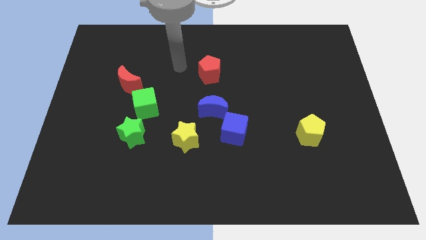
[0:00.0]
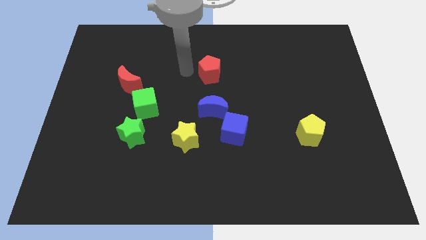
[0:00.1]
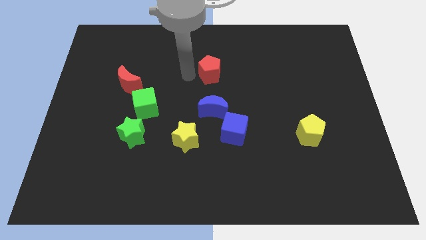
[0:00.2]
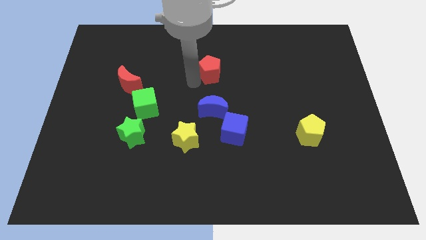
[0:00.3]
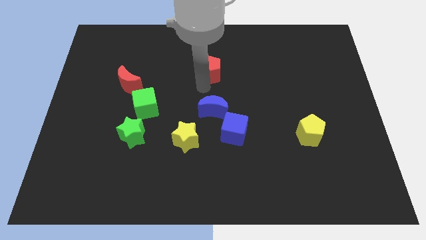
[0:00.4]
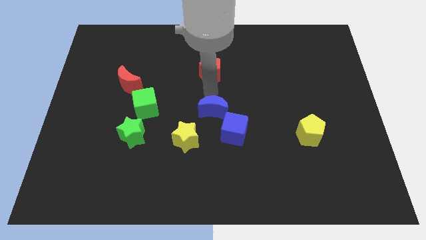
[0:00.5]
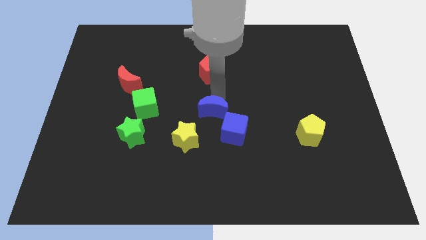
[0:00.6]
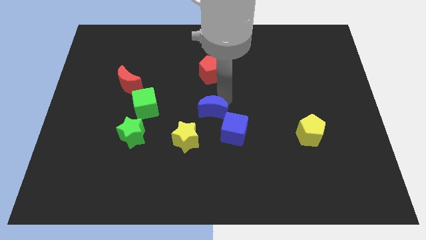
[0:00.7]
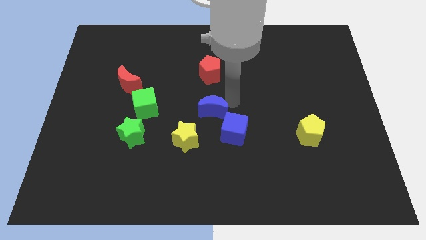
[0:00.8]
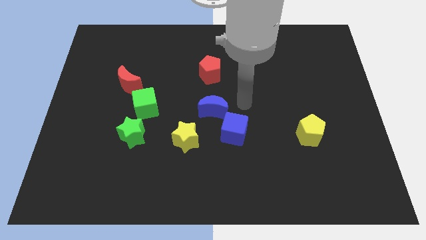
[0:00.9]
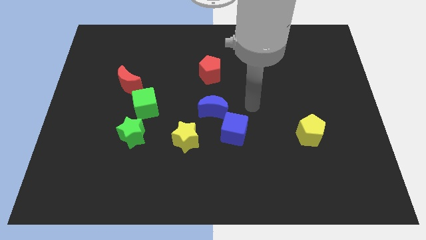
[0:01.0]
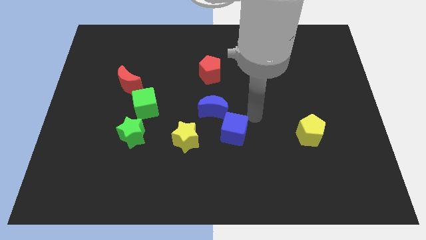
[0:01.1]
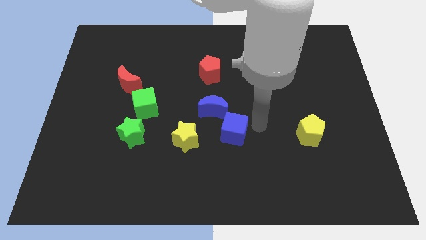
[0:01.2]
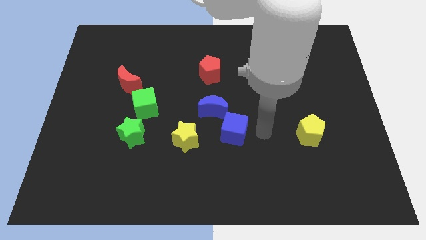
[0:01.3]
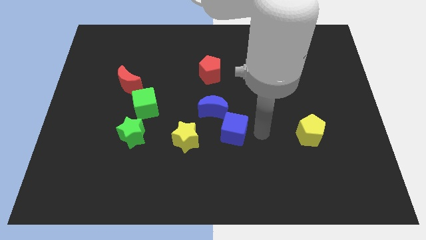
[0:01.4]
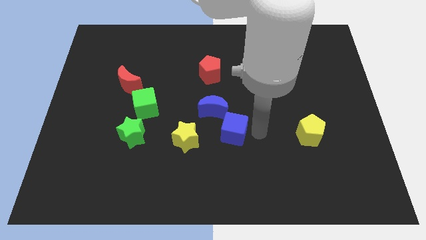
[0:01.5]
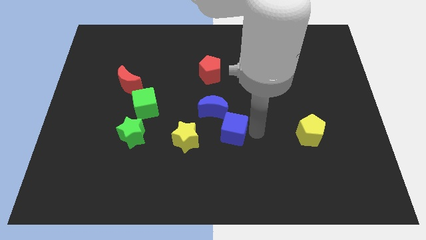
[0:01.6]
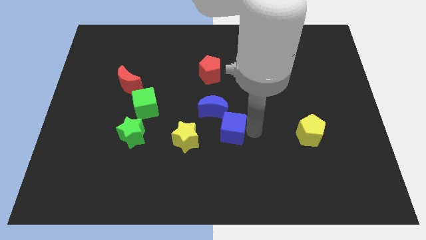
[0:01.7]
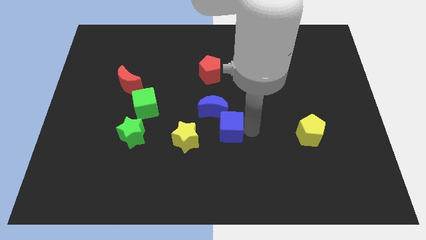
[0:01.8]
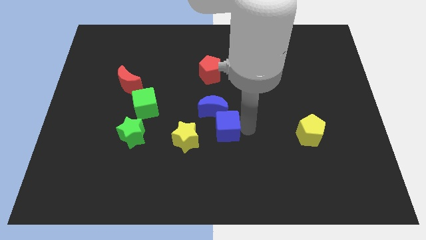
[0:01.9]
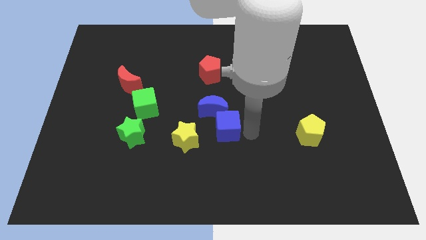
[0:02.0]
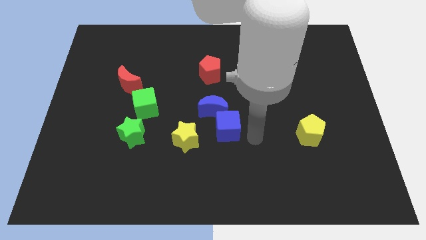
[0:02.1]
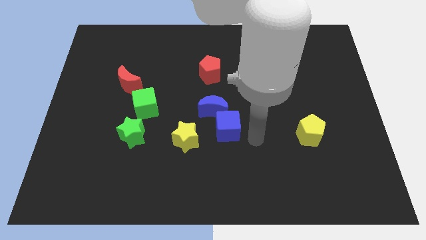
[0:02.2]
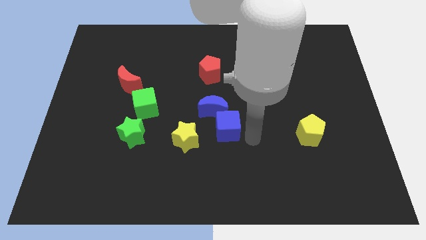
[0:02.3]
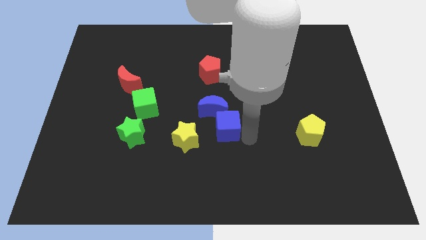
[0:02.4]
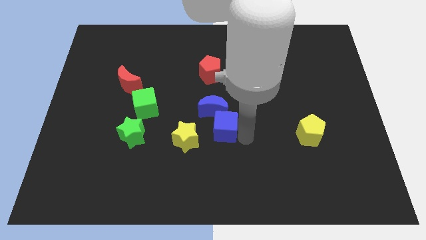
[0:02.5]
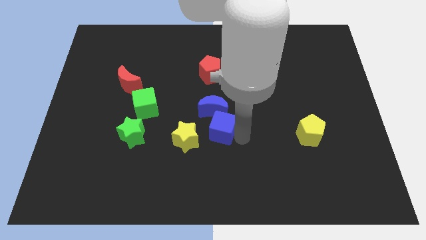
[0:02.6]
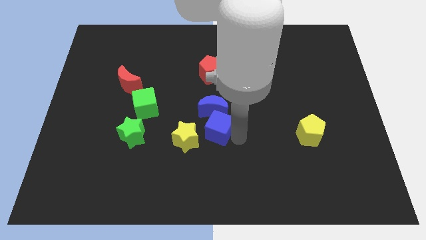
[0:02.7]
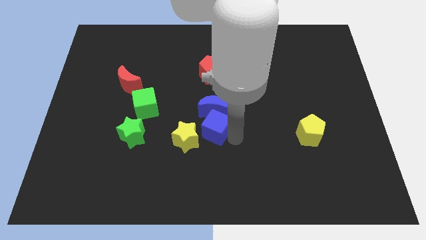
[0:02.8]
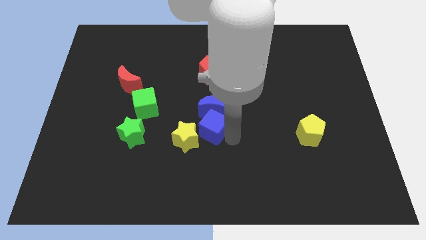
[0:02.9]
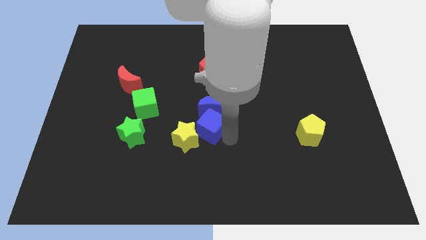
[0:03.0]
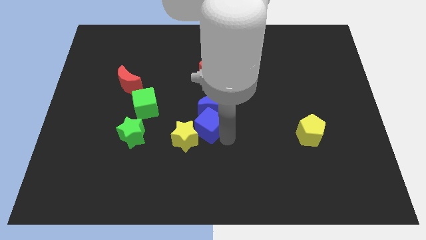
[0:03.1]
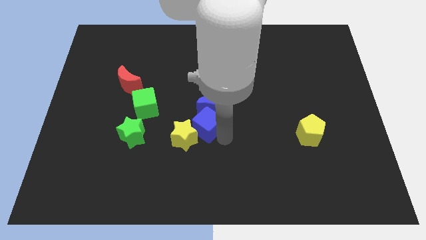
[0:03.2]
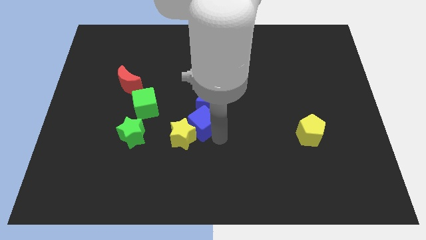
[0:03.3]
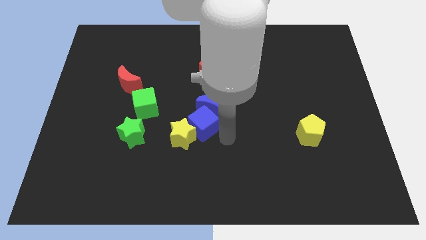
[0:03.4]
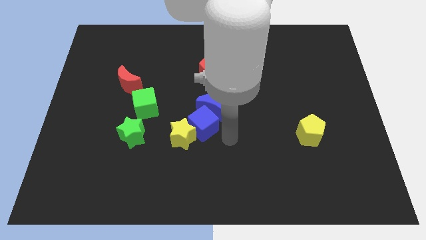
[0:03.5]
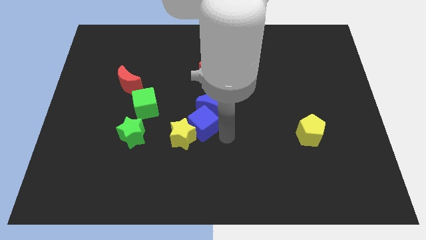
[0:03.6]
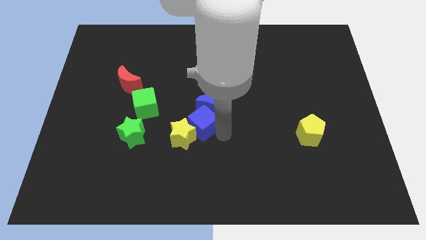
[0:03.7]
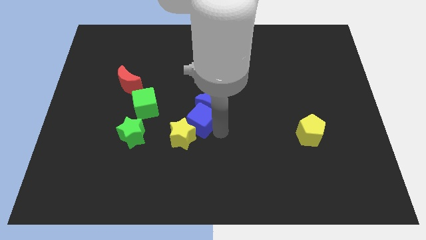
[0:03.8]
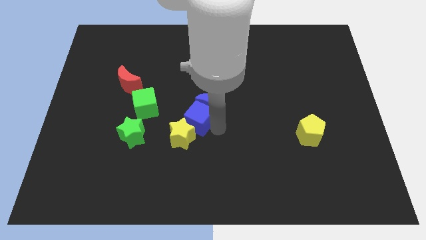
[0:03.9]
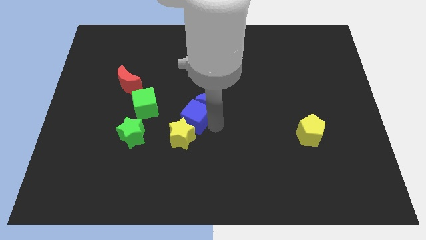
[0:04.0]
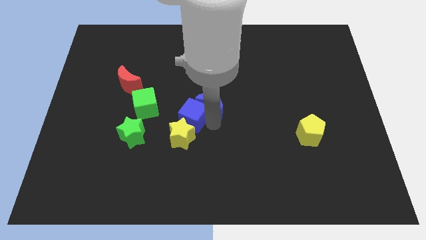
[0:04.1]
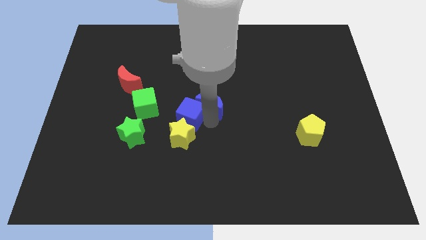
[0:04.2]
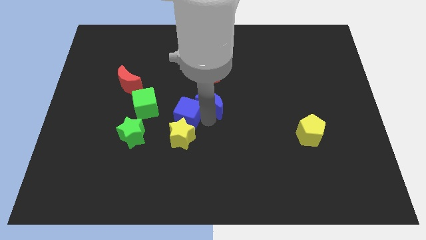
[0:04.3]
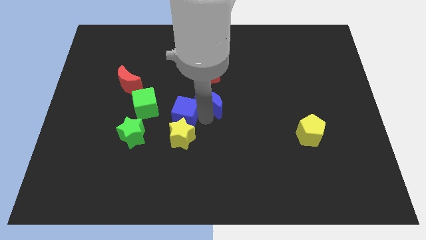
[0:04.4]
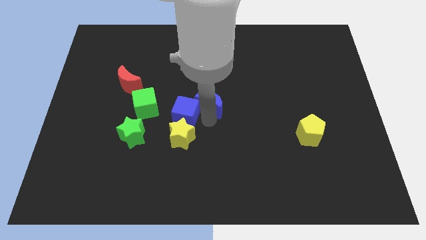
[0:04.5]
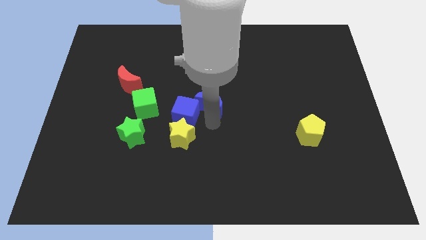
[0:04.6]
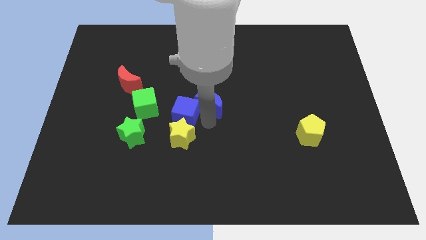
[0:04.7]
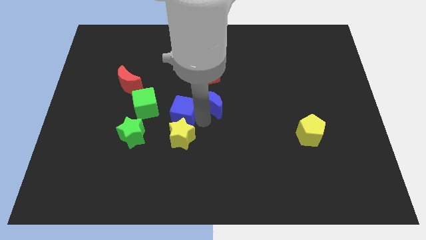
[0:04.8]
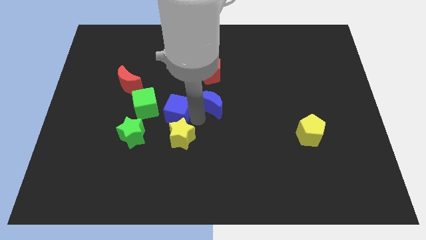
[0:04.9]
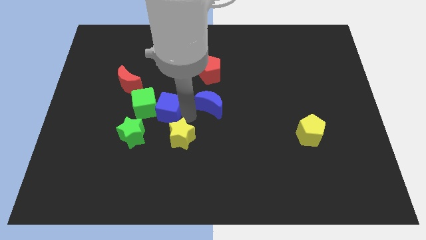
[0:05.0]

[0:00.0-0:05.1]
put the blue cube next to the green cube

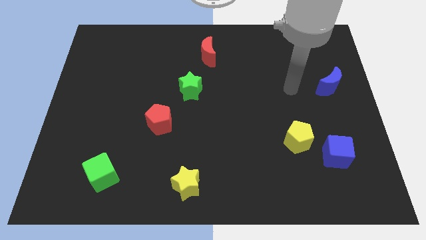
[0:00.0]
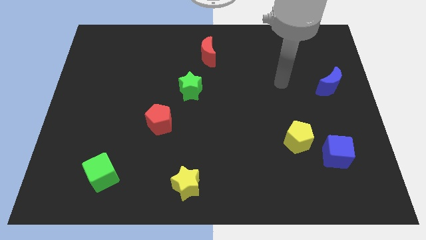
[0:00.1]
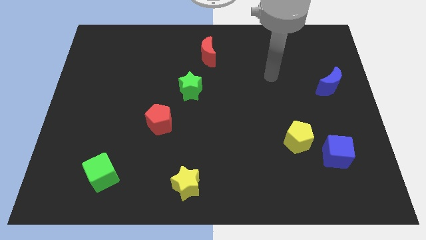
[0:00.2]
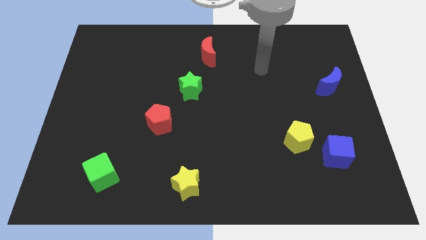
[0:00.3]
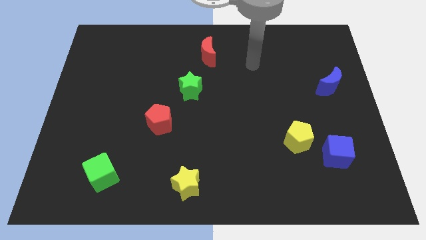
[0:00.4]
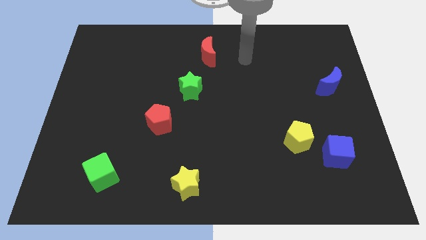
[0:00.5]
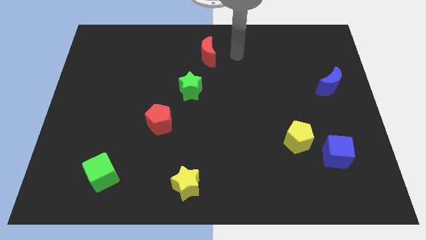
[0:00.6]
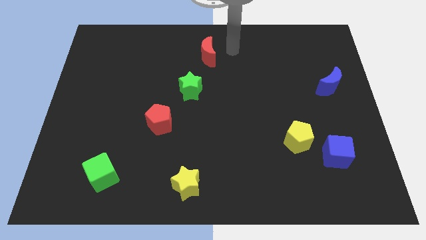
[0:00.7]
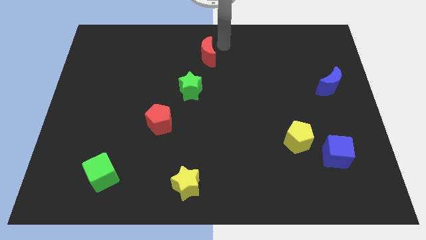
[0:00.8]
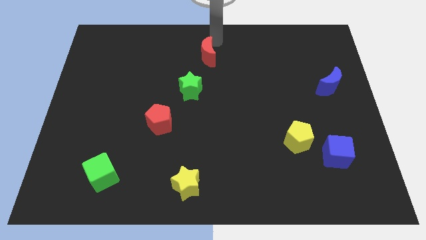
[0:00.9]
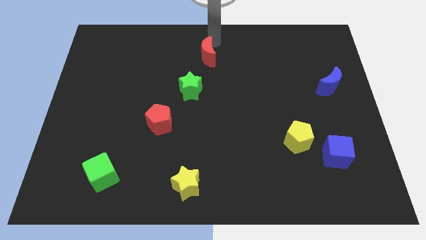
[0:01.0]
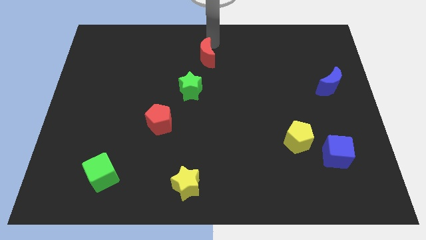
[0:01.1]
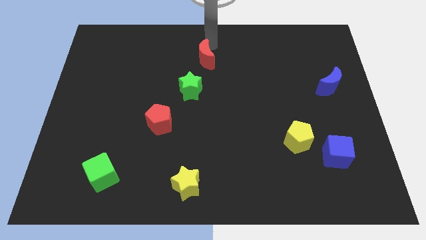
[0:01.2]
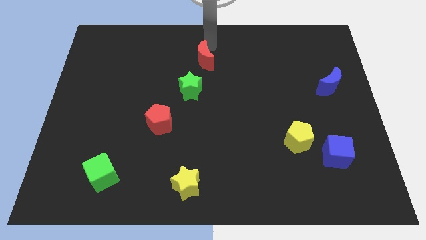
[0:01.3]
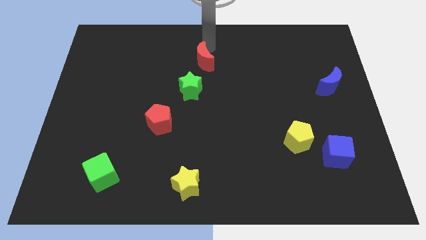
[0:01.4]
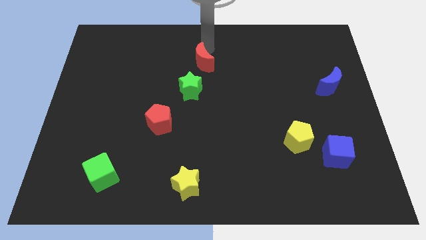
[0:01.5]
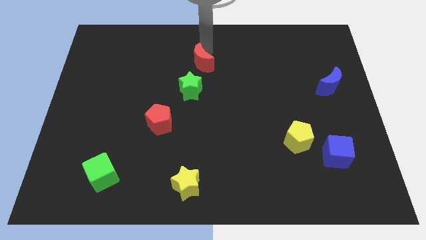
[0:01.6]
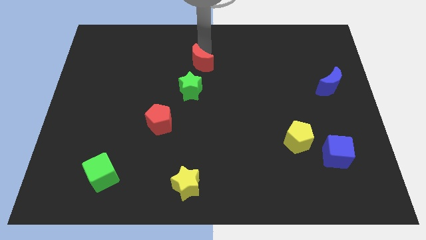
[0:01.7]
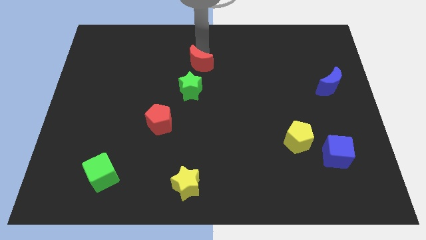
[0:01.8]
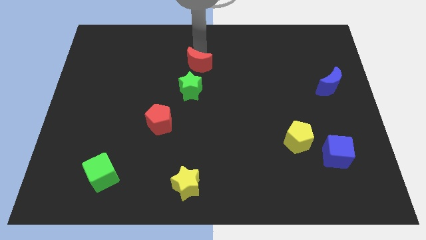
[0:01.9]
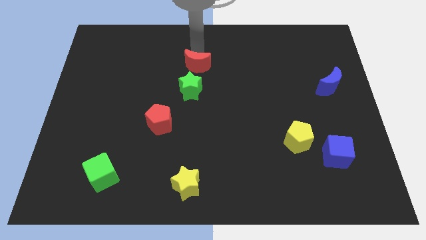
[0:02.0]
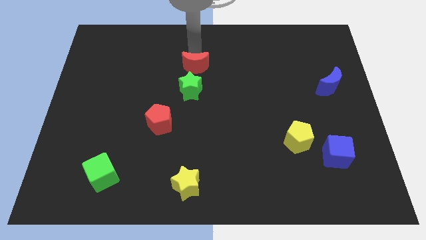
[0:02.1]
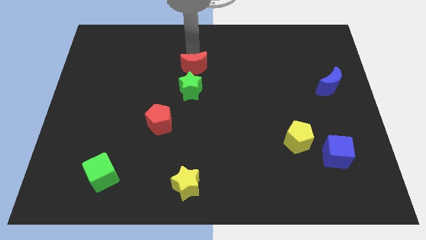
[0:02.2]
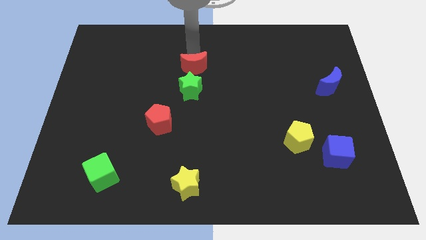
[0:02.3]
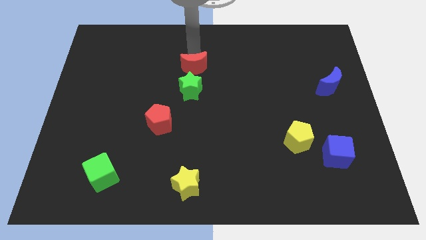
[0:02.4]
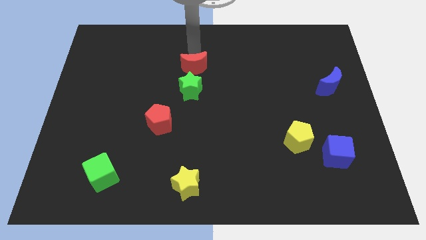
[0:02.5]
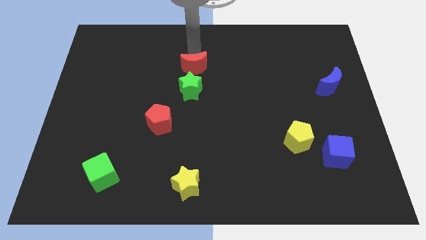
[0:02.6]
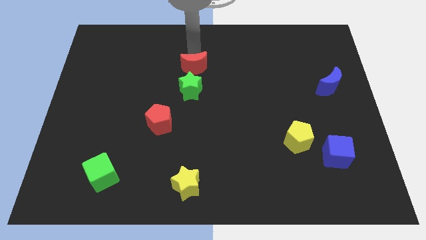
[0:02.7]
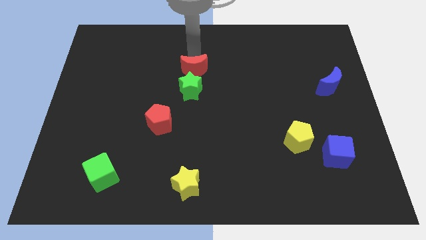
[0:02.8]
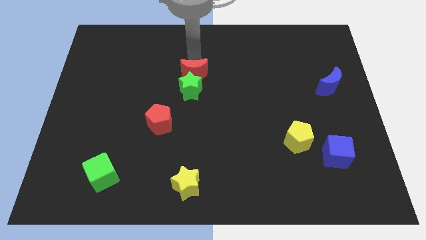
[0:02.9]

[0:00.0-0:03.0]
move the red moon to the green star
